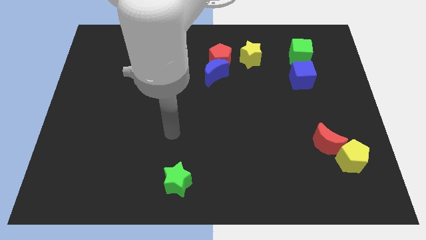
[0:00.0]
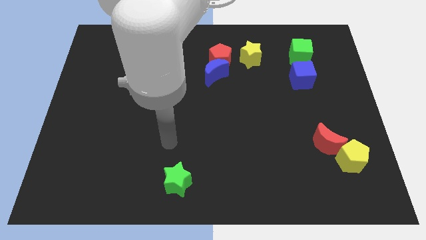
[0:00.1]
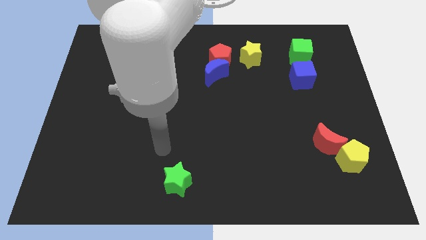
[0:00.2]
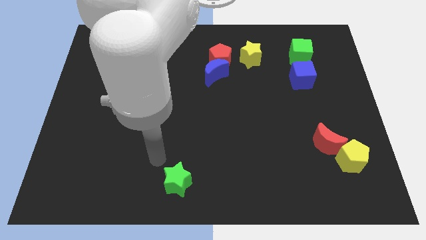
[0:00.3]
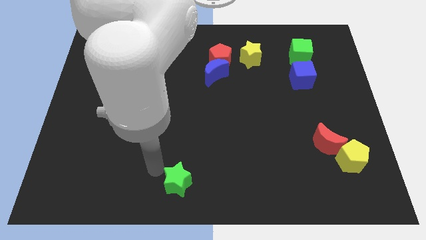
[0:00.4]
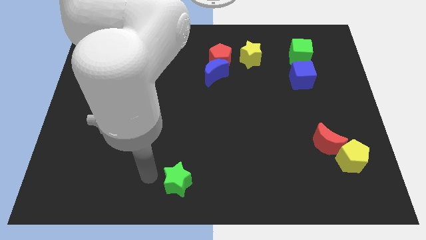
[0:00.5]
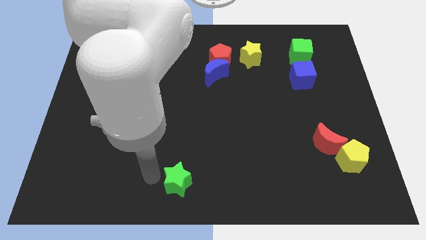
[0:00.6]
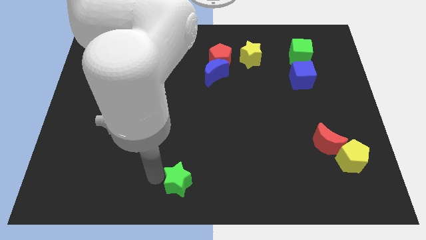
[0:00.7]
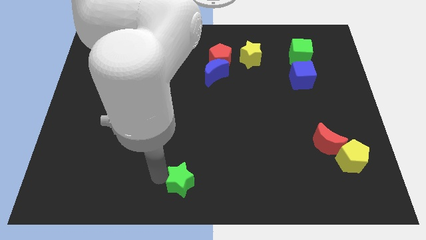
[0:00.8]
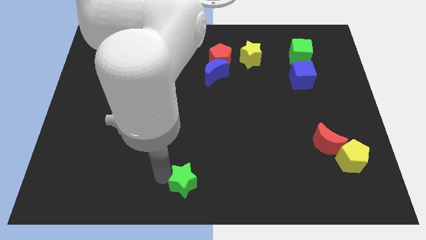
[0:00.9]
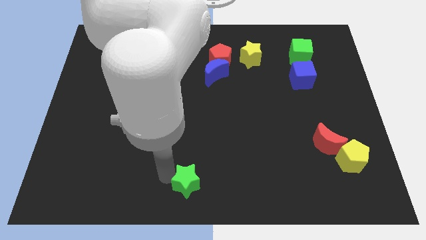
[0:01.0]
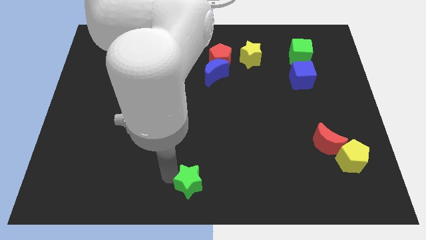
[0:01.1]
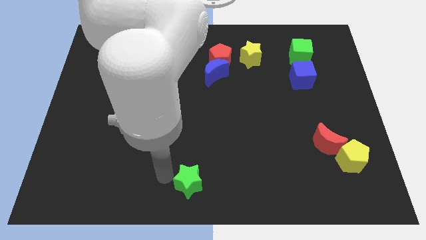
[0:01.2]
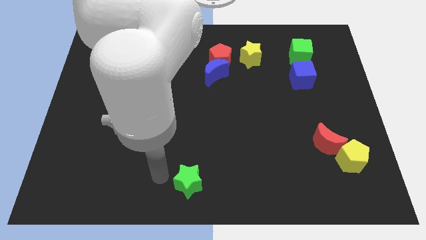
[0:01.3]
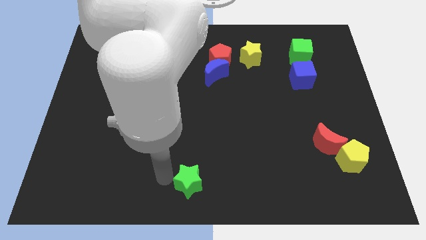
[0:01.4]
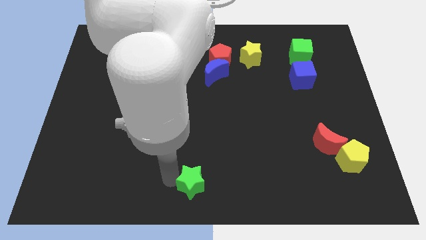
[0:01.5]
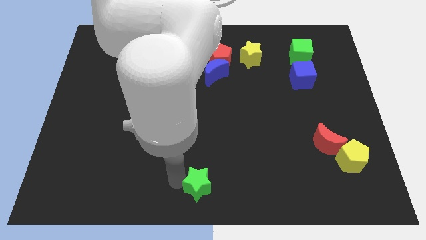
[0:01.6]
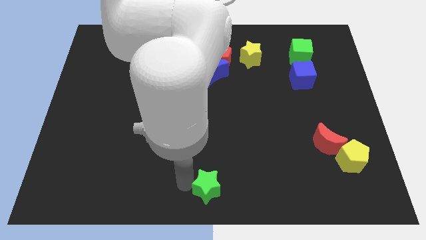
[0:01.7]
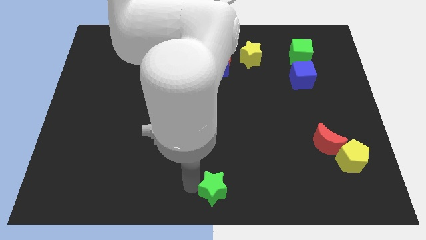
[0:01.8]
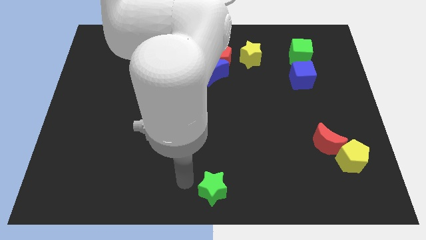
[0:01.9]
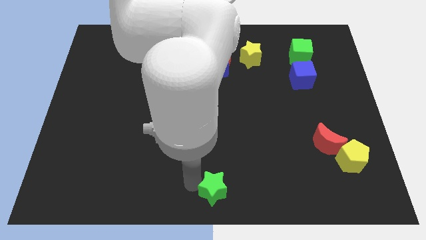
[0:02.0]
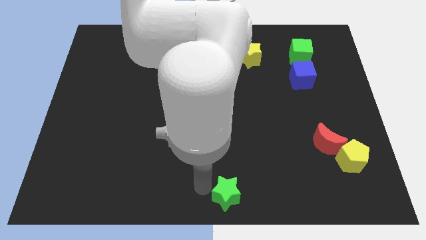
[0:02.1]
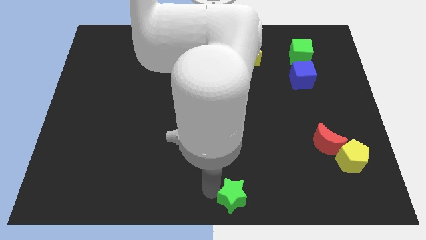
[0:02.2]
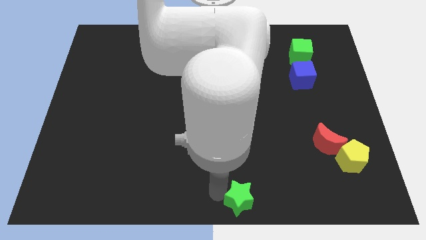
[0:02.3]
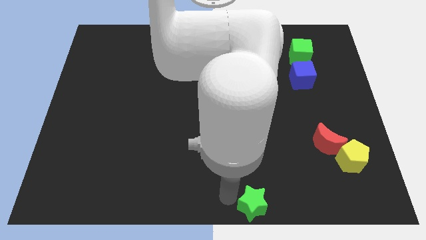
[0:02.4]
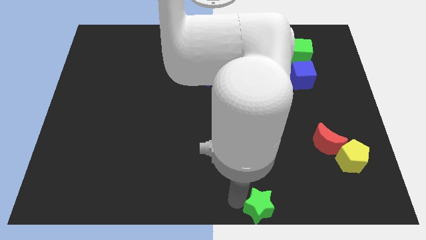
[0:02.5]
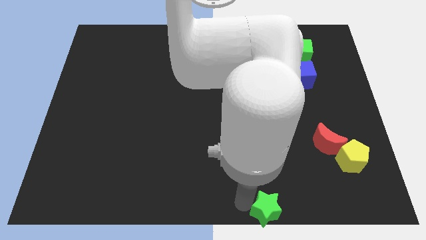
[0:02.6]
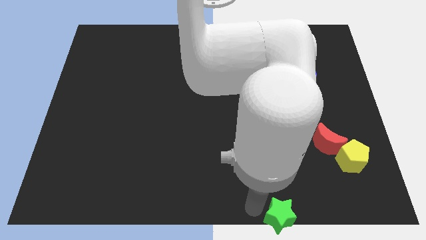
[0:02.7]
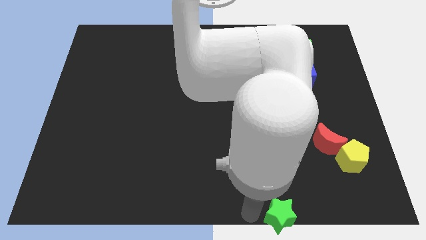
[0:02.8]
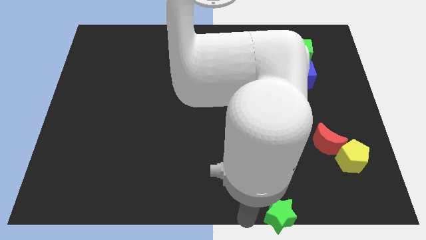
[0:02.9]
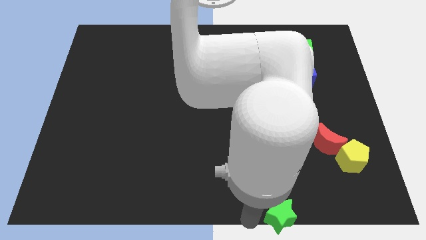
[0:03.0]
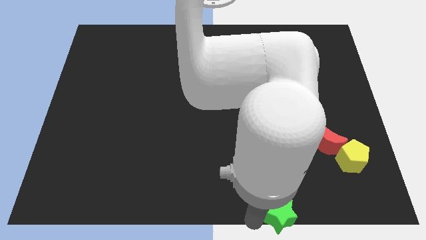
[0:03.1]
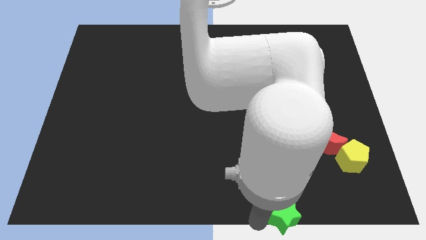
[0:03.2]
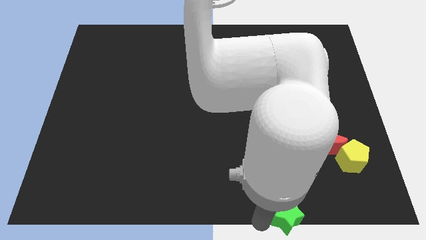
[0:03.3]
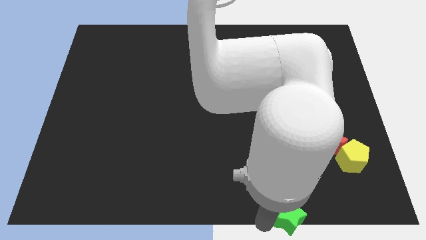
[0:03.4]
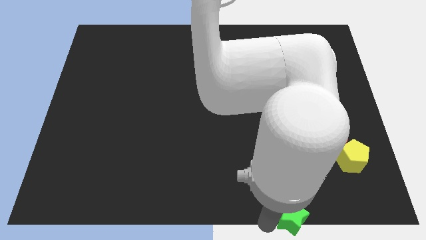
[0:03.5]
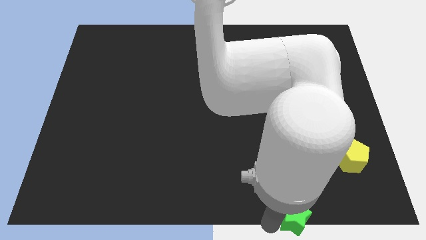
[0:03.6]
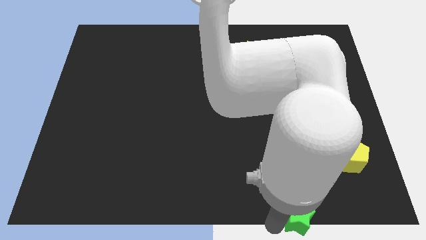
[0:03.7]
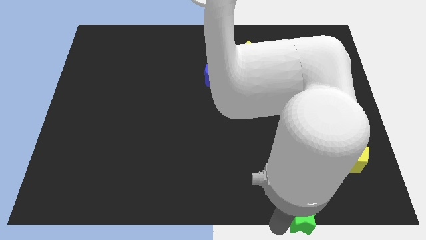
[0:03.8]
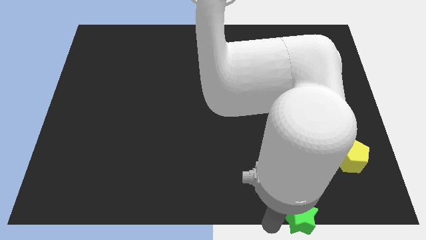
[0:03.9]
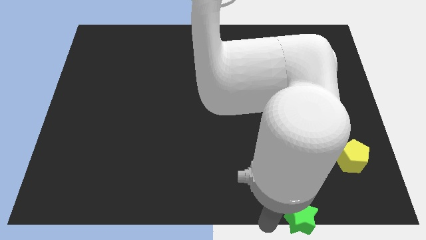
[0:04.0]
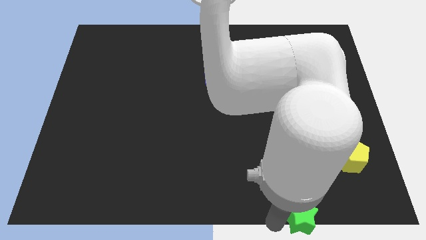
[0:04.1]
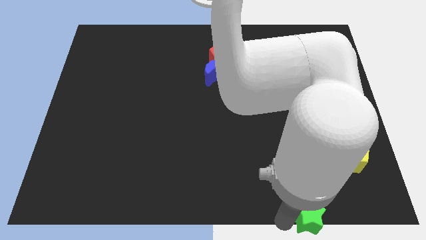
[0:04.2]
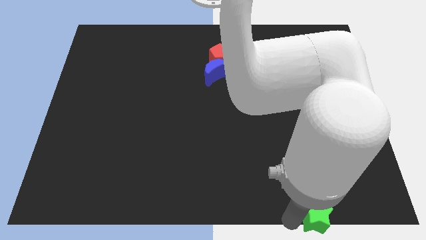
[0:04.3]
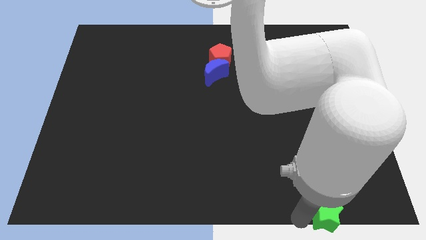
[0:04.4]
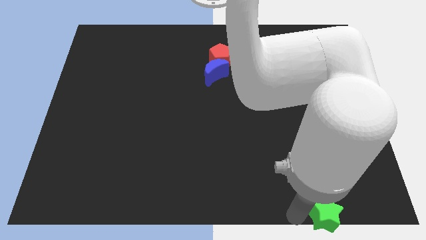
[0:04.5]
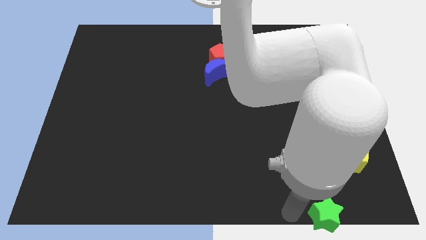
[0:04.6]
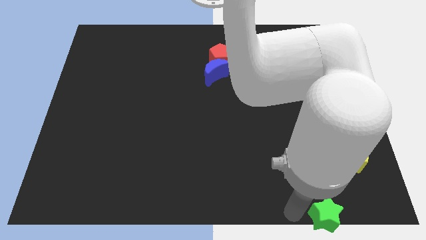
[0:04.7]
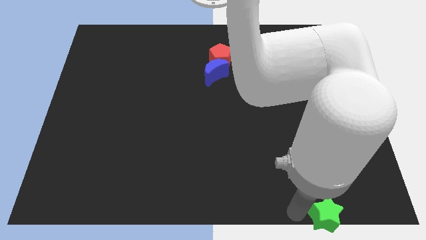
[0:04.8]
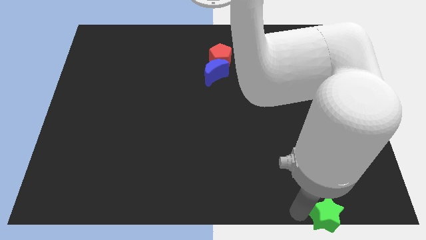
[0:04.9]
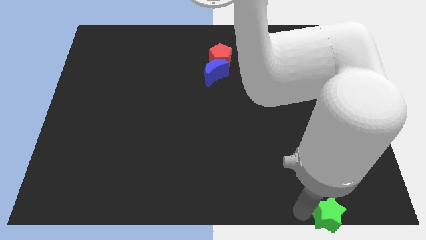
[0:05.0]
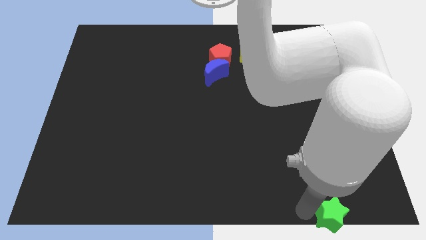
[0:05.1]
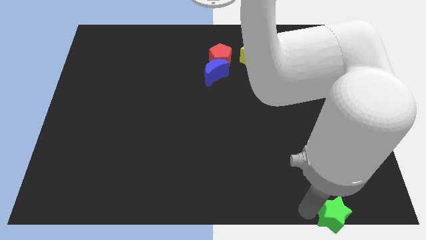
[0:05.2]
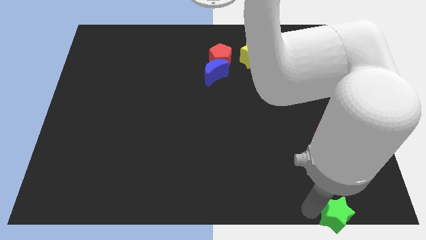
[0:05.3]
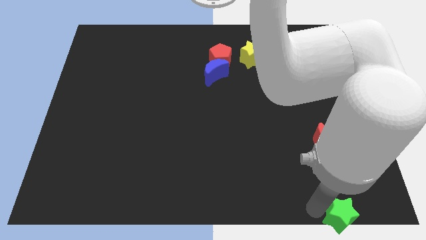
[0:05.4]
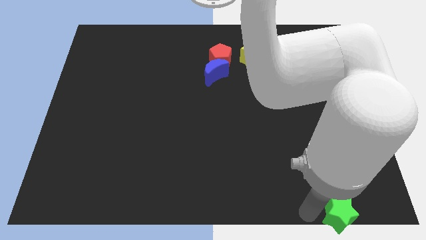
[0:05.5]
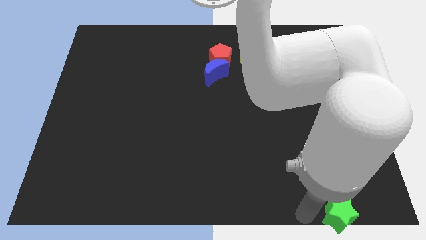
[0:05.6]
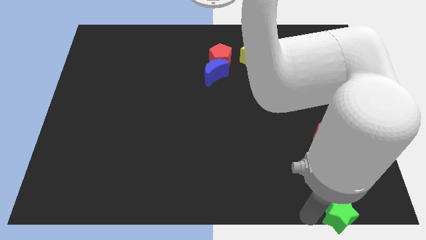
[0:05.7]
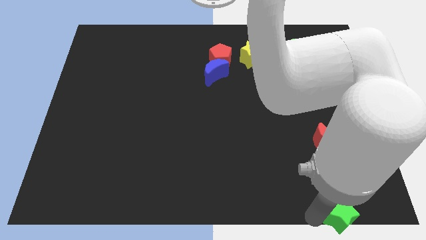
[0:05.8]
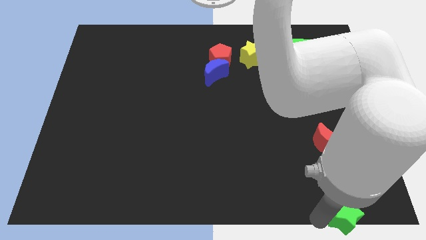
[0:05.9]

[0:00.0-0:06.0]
put the green star to the lower right corner

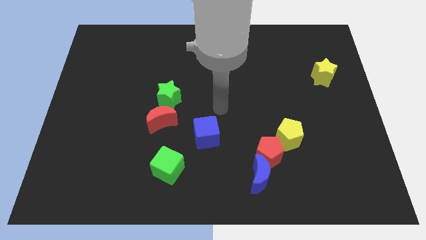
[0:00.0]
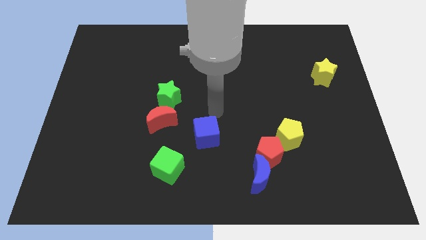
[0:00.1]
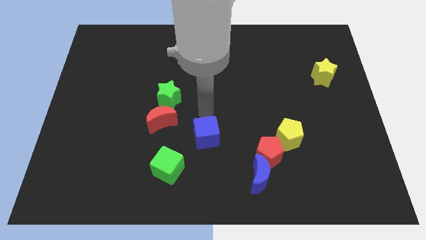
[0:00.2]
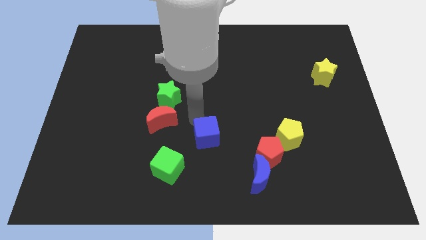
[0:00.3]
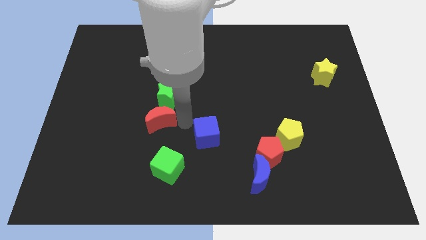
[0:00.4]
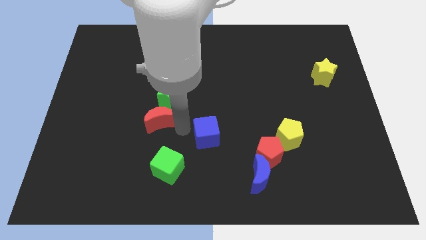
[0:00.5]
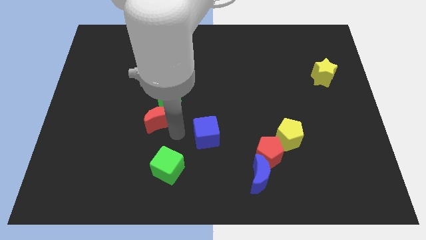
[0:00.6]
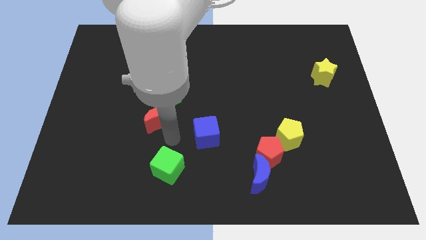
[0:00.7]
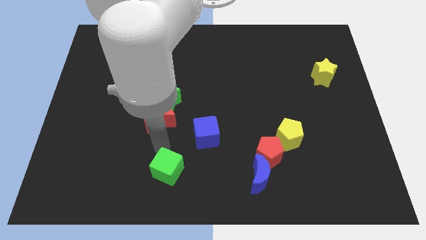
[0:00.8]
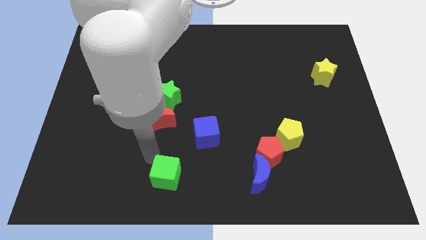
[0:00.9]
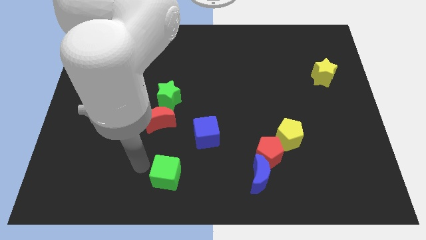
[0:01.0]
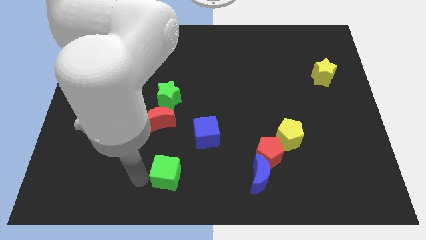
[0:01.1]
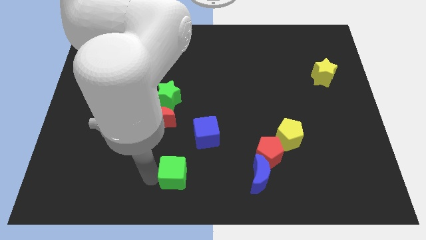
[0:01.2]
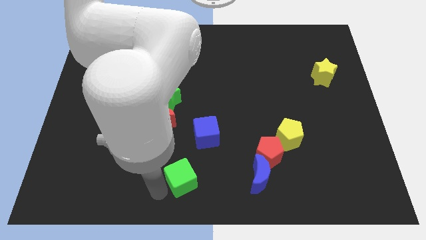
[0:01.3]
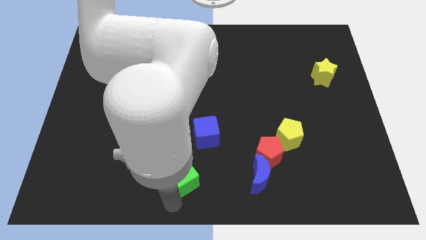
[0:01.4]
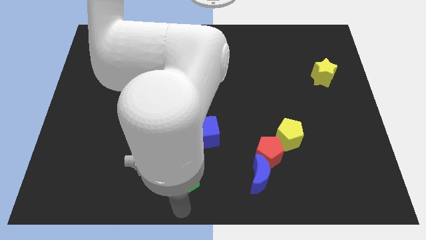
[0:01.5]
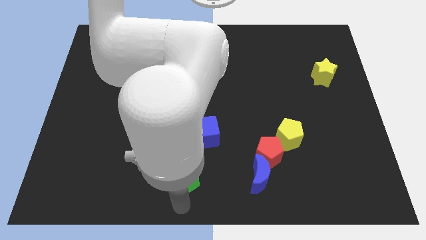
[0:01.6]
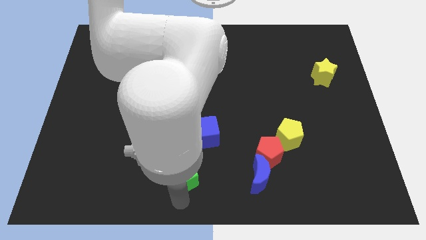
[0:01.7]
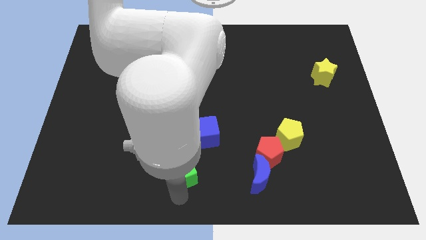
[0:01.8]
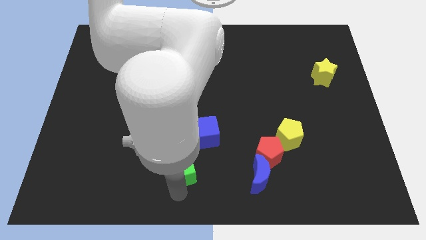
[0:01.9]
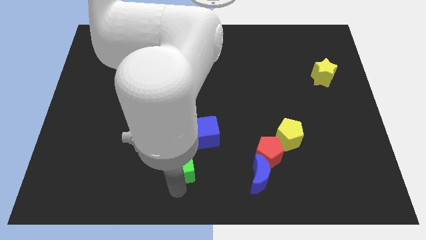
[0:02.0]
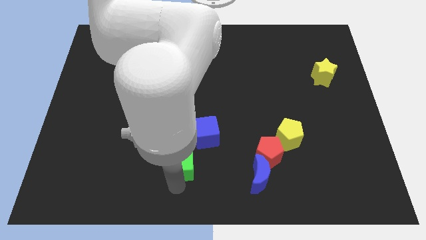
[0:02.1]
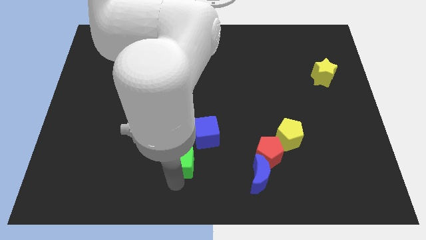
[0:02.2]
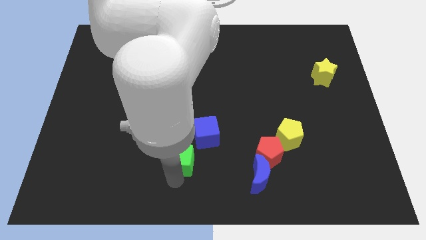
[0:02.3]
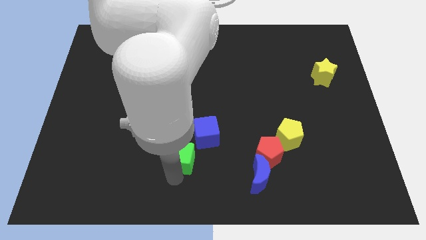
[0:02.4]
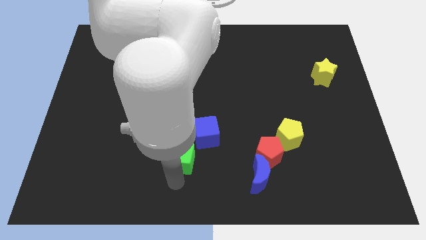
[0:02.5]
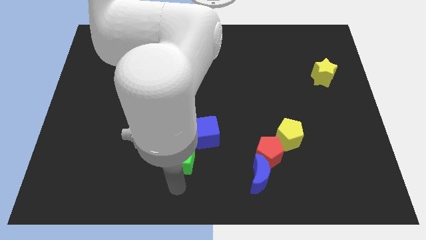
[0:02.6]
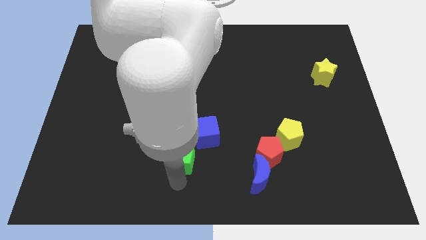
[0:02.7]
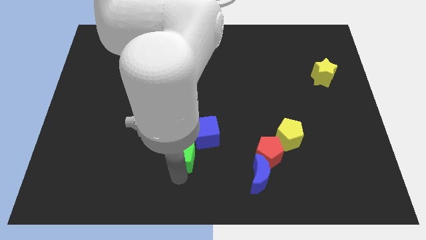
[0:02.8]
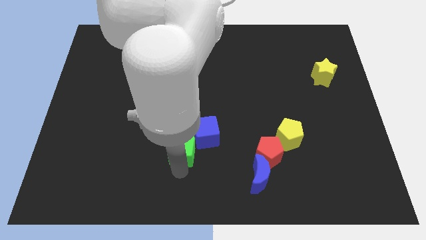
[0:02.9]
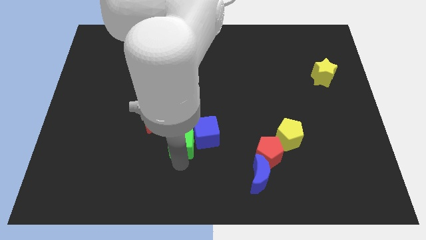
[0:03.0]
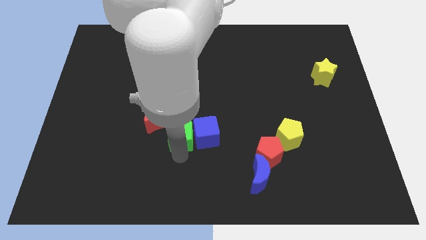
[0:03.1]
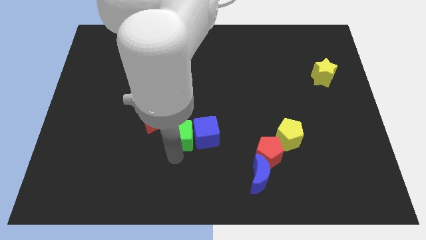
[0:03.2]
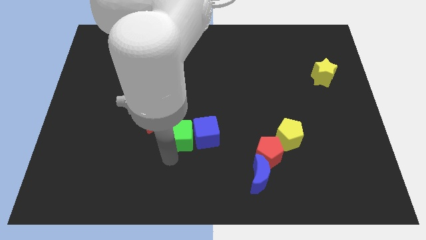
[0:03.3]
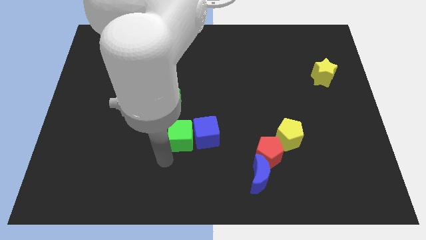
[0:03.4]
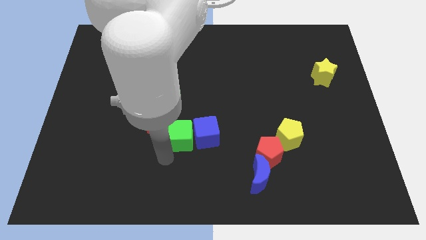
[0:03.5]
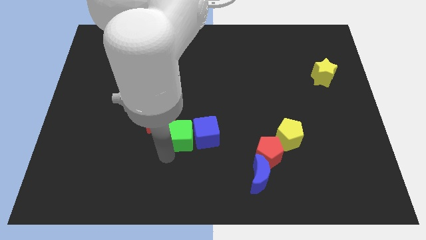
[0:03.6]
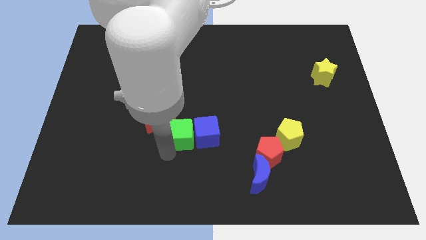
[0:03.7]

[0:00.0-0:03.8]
move the green cube to the center of the board
